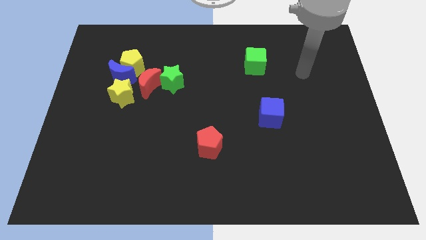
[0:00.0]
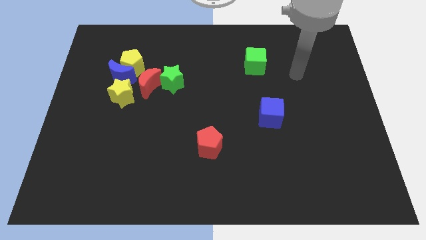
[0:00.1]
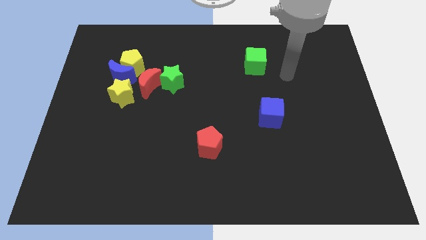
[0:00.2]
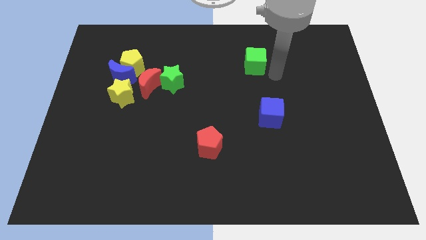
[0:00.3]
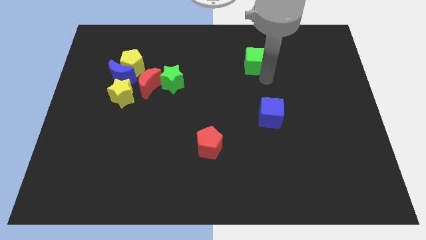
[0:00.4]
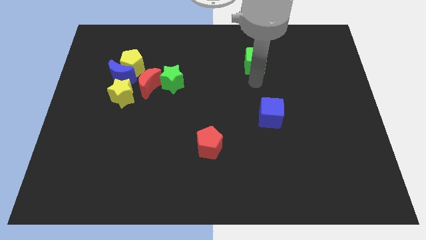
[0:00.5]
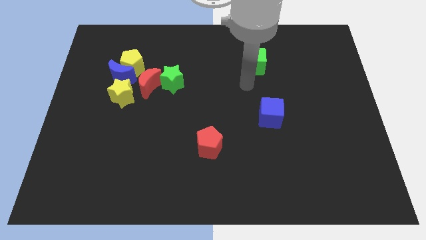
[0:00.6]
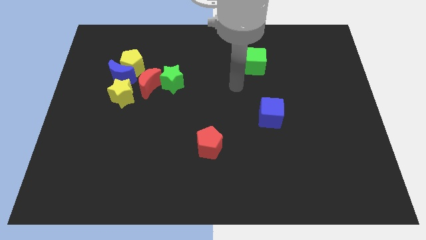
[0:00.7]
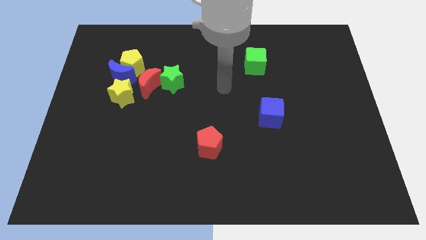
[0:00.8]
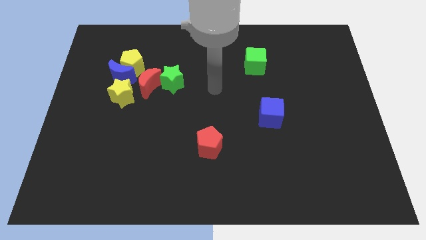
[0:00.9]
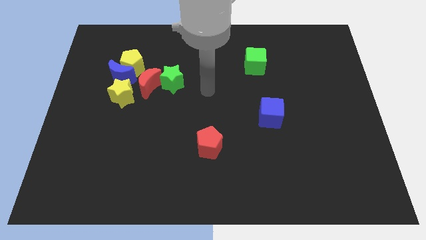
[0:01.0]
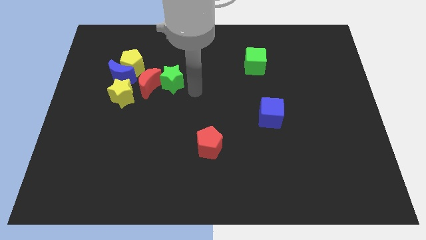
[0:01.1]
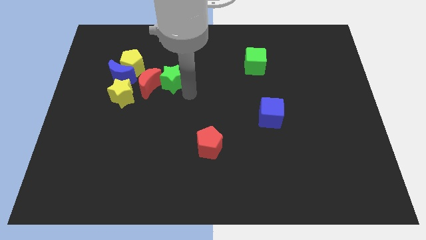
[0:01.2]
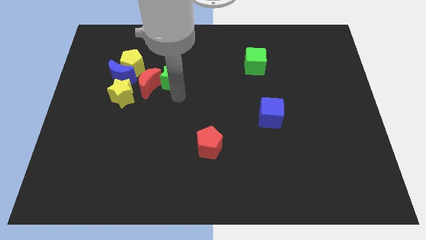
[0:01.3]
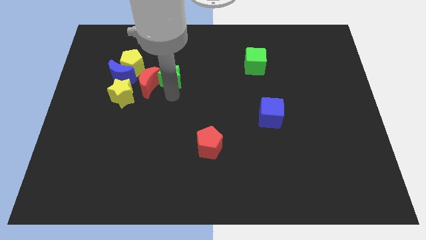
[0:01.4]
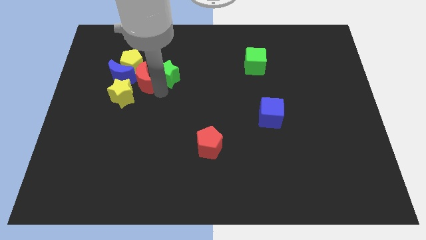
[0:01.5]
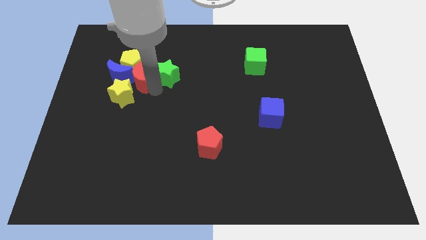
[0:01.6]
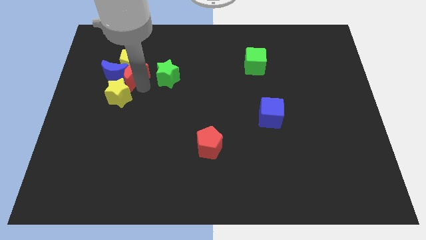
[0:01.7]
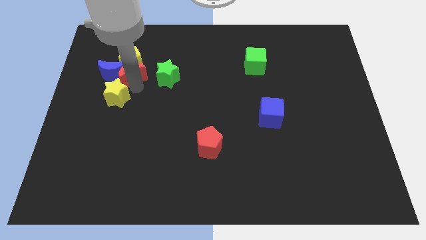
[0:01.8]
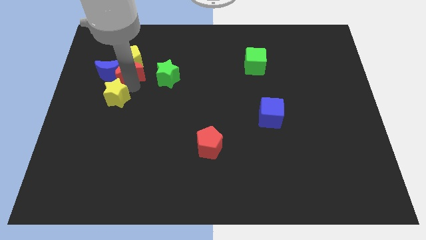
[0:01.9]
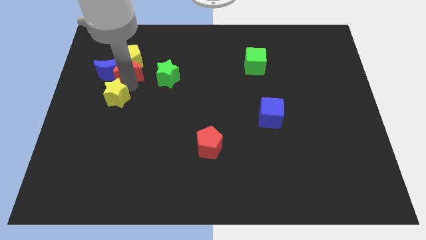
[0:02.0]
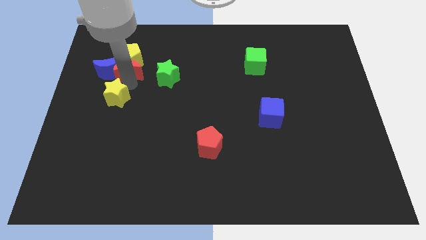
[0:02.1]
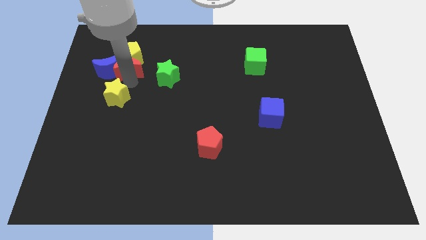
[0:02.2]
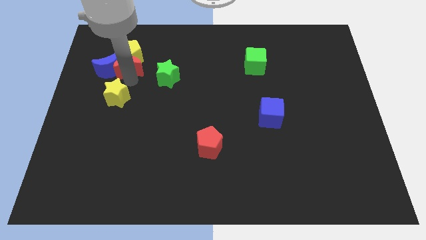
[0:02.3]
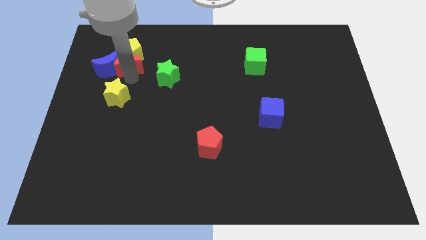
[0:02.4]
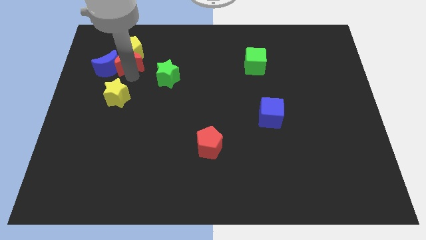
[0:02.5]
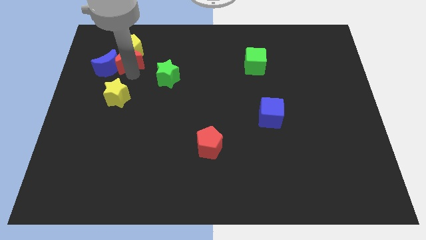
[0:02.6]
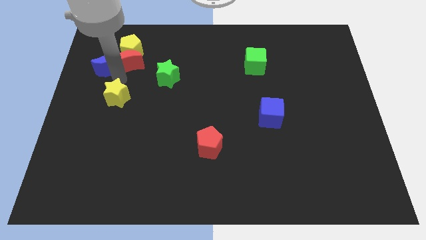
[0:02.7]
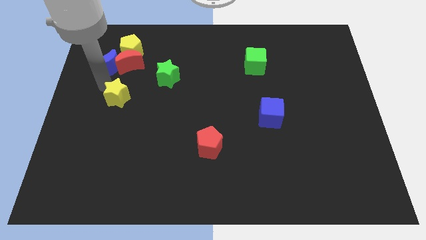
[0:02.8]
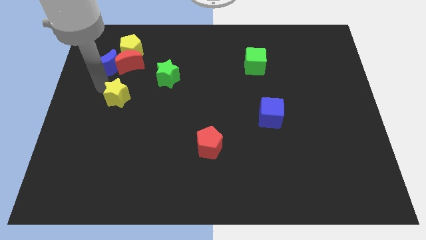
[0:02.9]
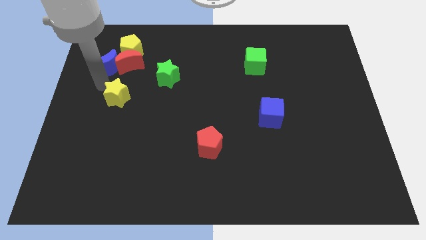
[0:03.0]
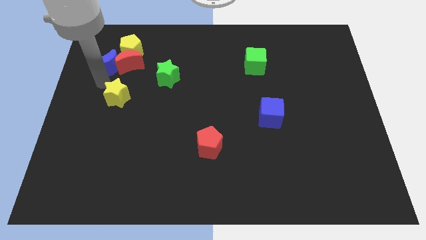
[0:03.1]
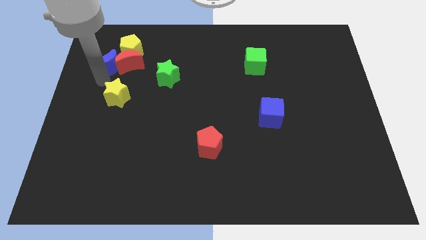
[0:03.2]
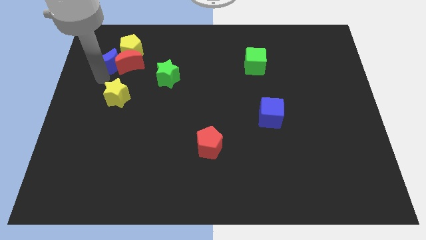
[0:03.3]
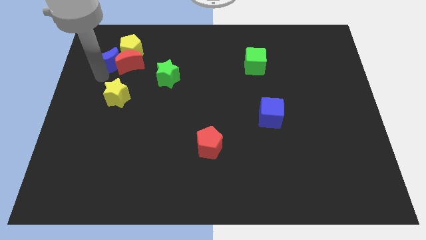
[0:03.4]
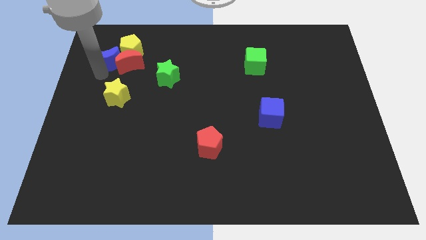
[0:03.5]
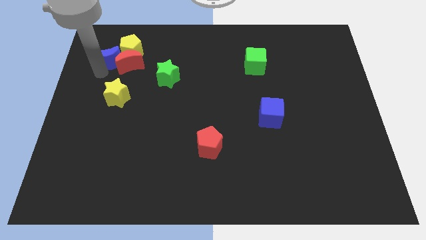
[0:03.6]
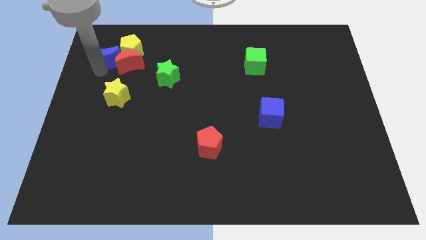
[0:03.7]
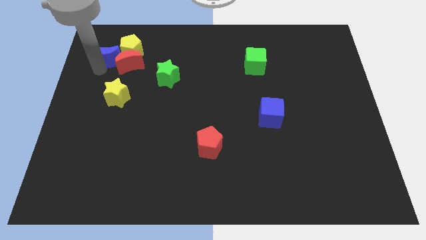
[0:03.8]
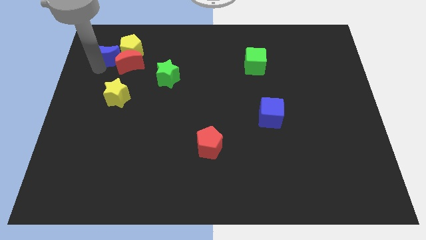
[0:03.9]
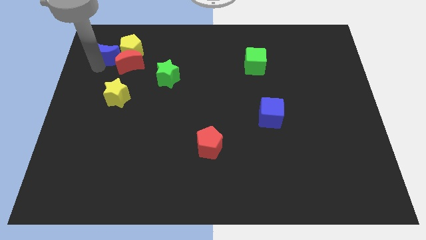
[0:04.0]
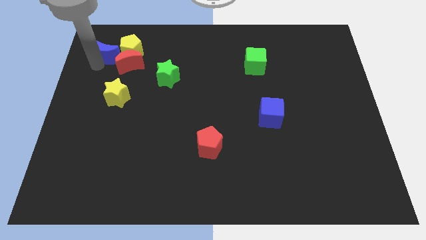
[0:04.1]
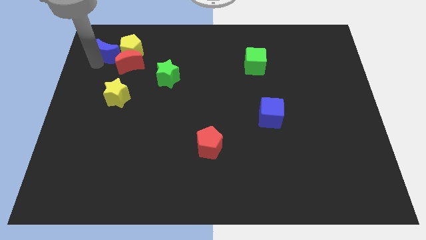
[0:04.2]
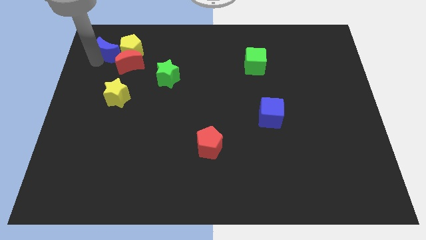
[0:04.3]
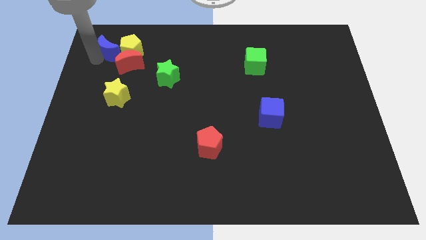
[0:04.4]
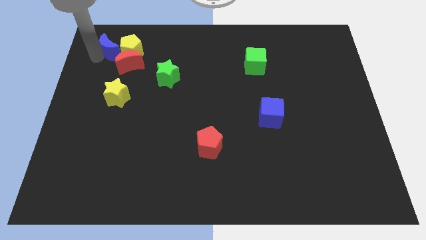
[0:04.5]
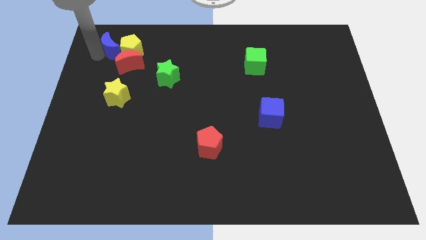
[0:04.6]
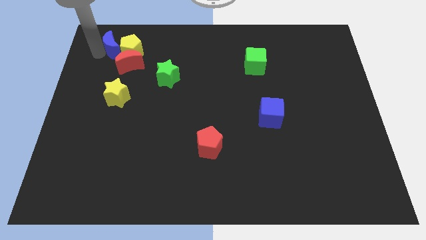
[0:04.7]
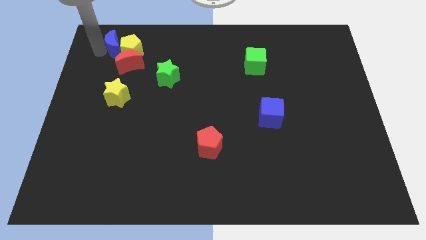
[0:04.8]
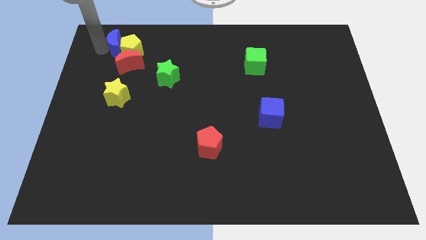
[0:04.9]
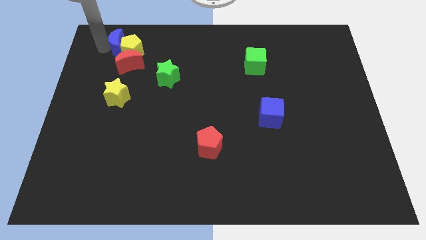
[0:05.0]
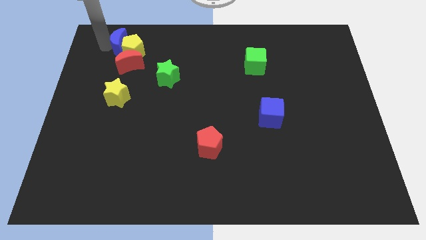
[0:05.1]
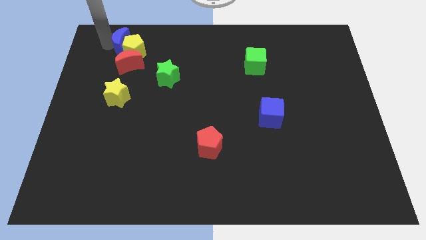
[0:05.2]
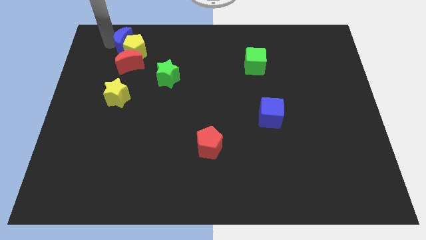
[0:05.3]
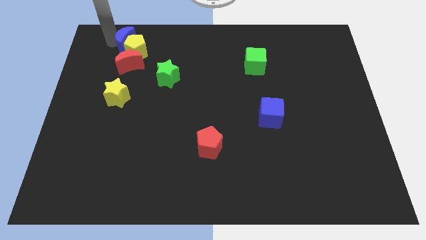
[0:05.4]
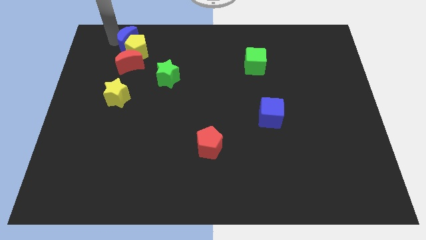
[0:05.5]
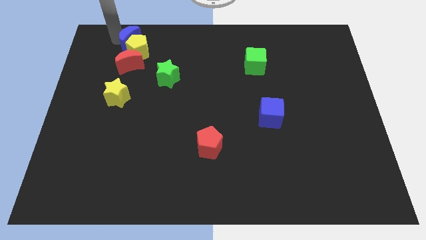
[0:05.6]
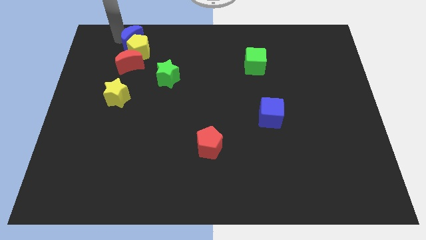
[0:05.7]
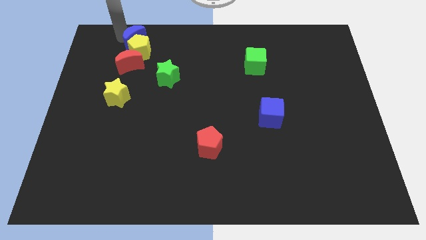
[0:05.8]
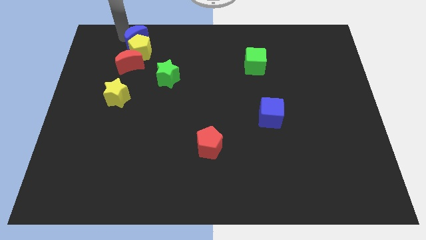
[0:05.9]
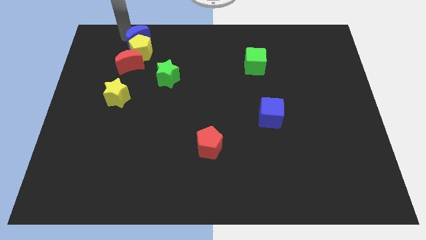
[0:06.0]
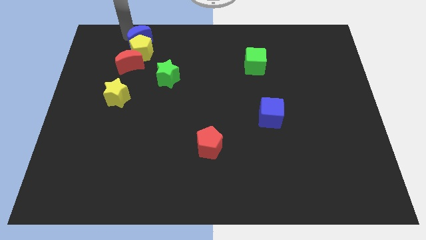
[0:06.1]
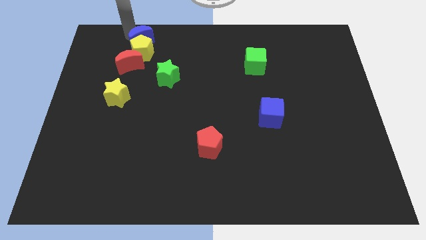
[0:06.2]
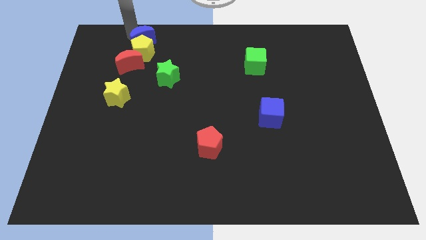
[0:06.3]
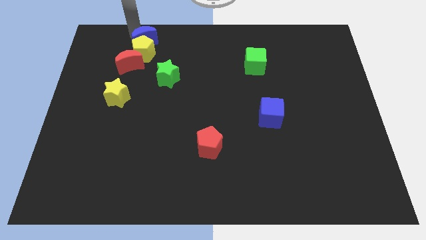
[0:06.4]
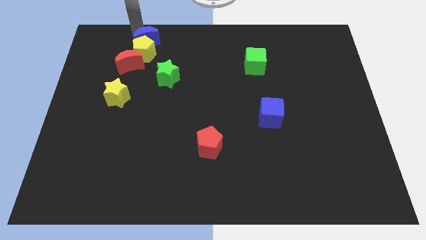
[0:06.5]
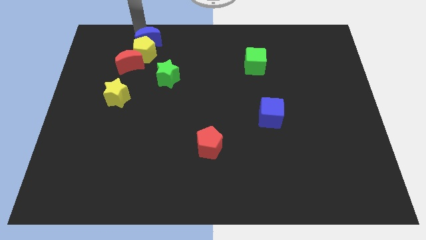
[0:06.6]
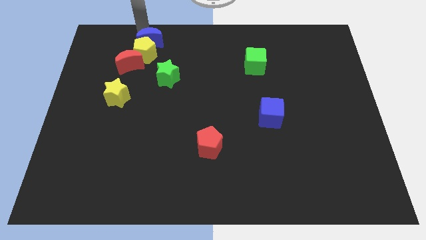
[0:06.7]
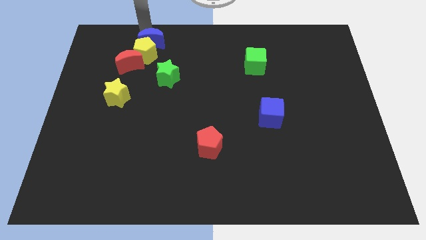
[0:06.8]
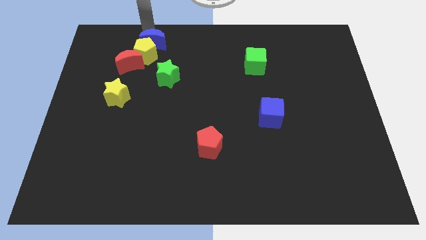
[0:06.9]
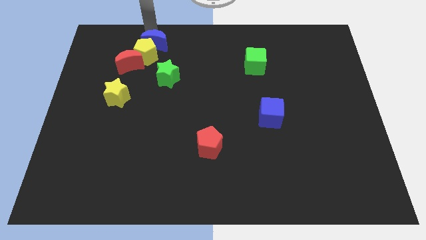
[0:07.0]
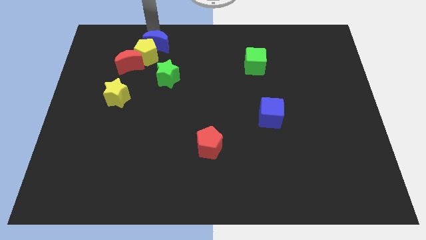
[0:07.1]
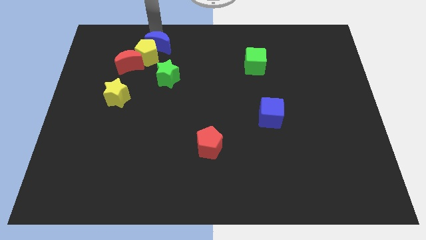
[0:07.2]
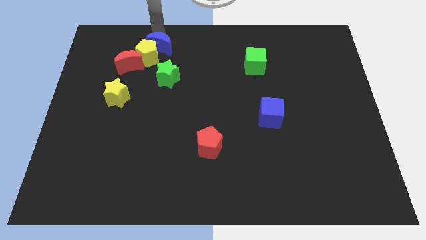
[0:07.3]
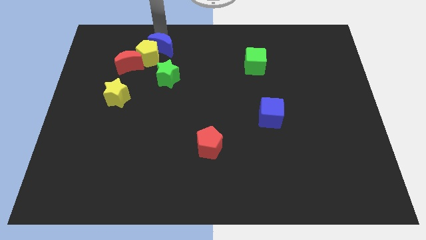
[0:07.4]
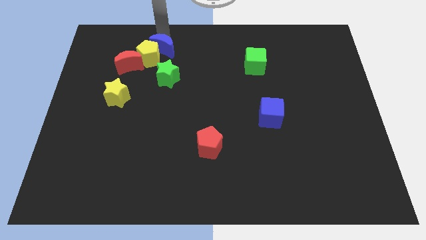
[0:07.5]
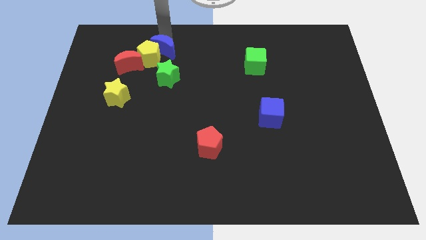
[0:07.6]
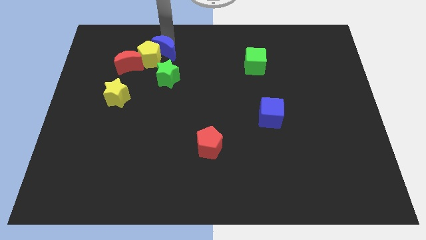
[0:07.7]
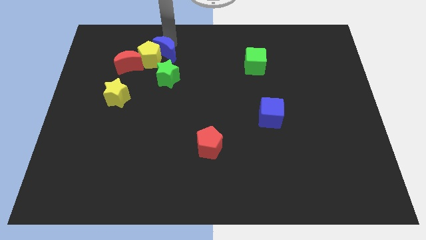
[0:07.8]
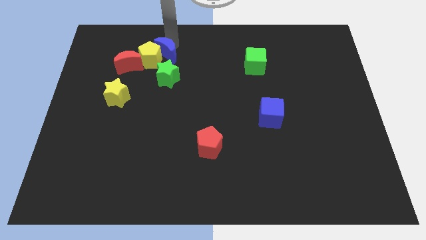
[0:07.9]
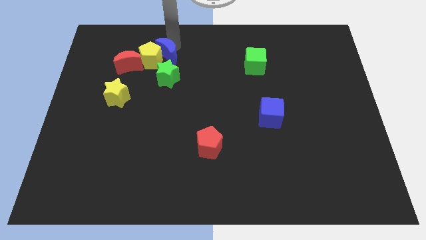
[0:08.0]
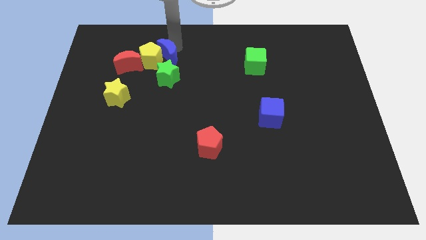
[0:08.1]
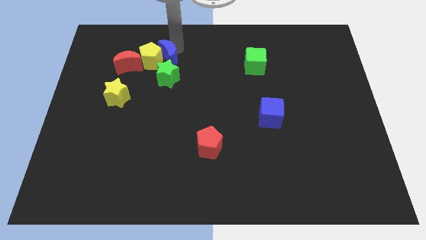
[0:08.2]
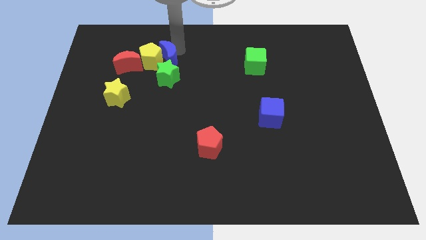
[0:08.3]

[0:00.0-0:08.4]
put the blue moon to the top right side of the green star
